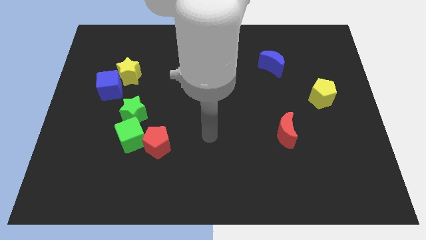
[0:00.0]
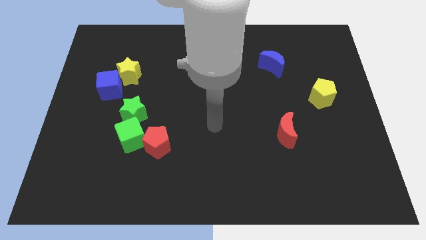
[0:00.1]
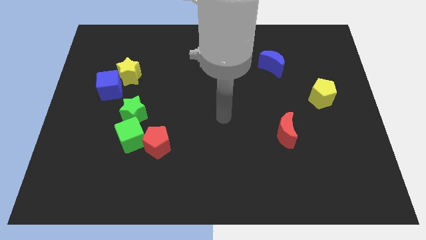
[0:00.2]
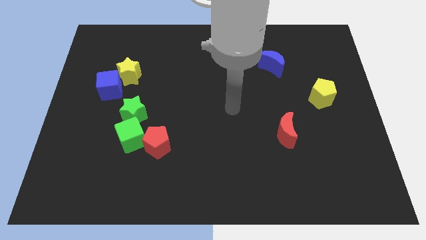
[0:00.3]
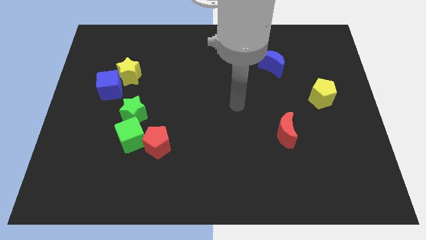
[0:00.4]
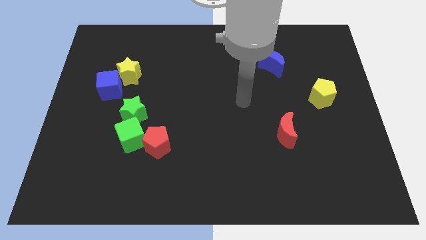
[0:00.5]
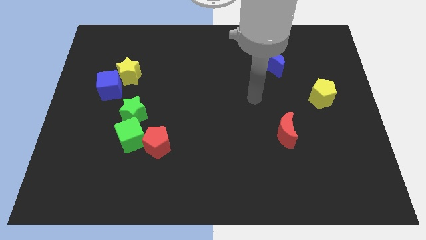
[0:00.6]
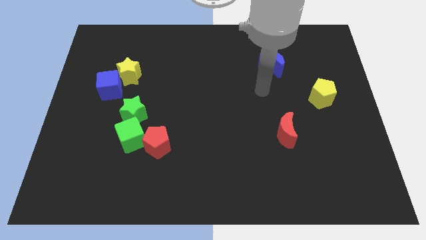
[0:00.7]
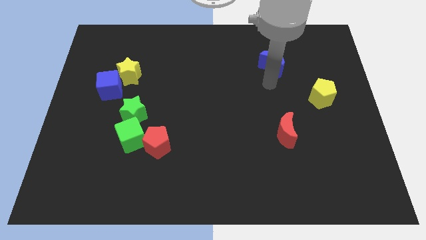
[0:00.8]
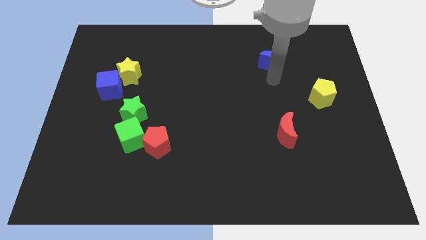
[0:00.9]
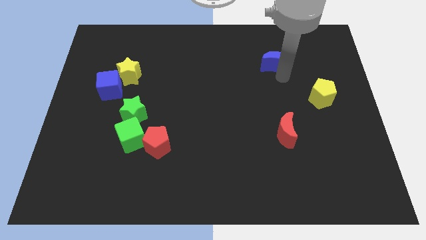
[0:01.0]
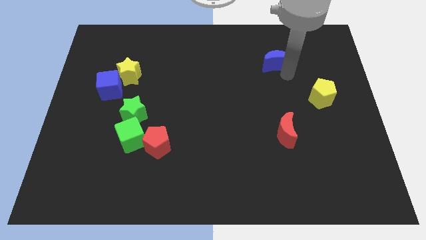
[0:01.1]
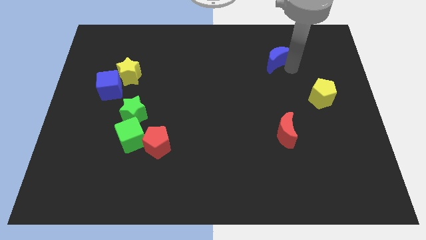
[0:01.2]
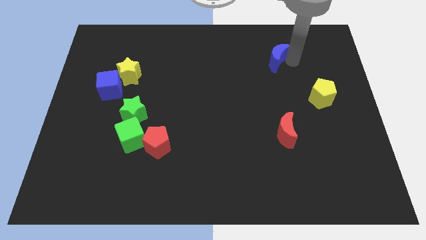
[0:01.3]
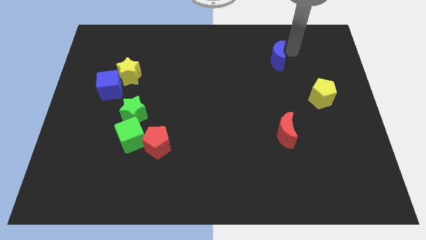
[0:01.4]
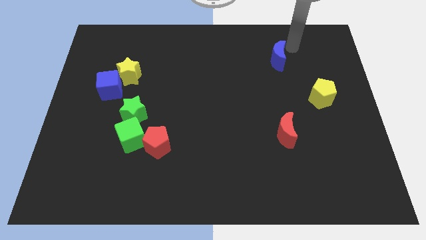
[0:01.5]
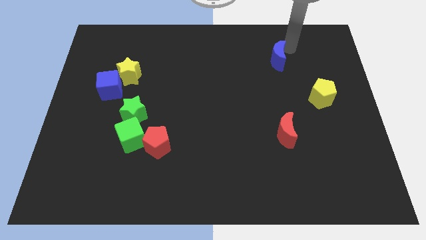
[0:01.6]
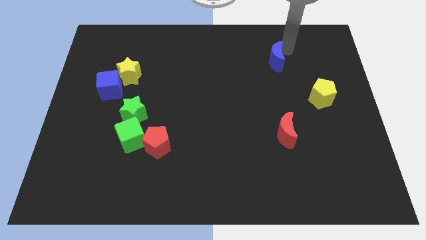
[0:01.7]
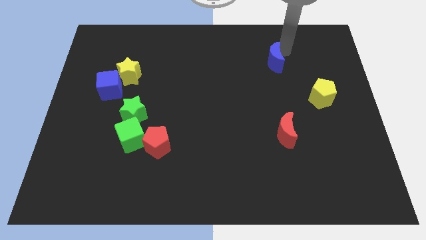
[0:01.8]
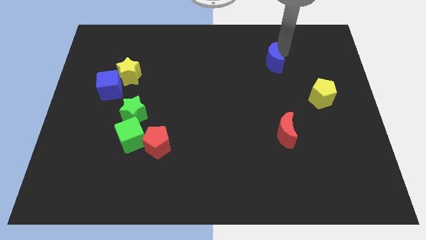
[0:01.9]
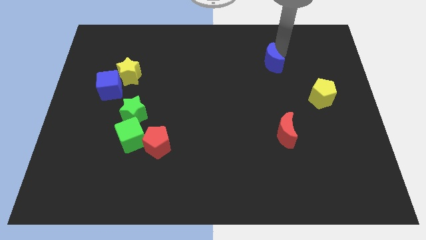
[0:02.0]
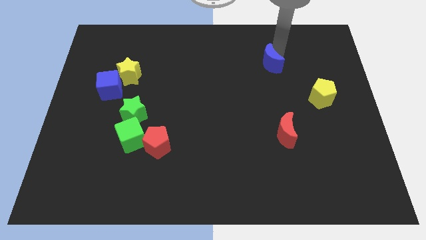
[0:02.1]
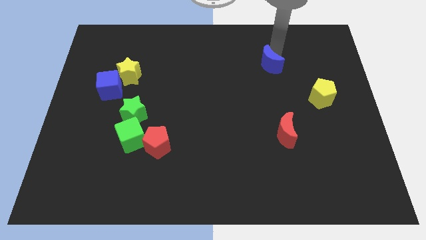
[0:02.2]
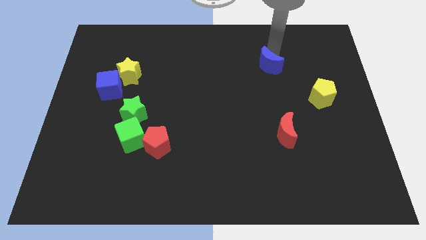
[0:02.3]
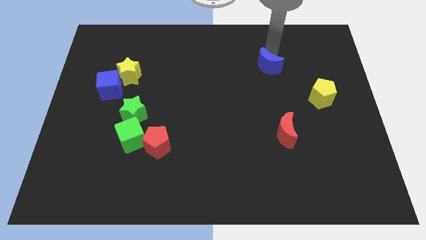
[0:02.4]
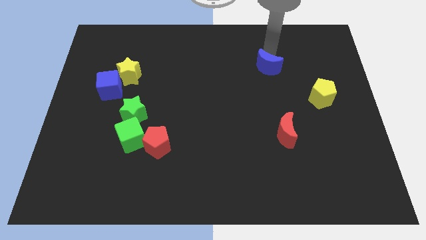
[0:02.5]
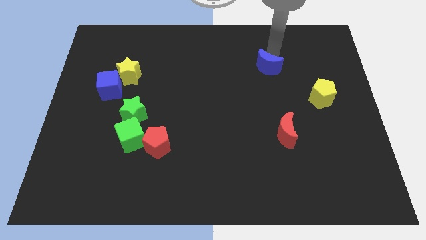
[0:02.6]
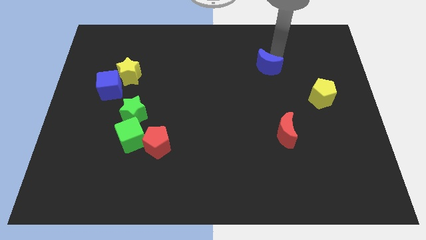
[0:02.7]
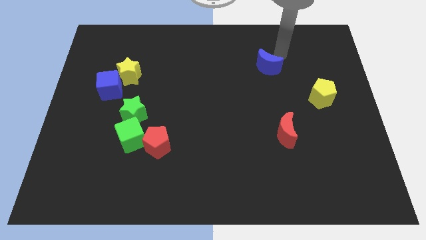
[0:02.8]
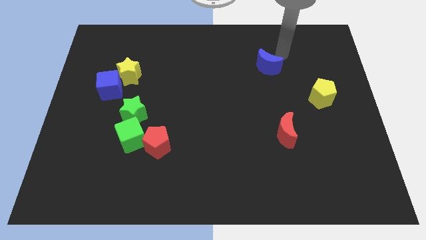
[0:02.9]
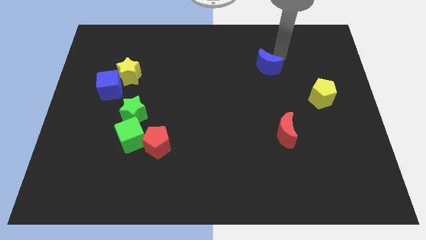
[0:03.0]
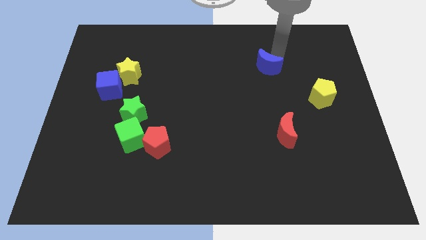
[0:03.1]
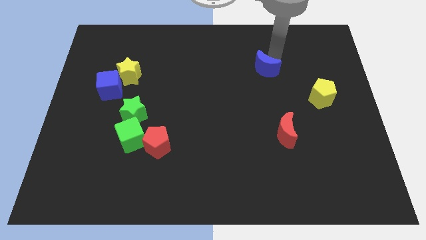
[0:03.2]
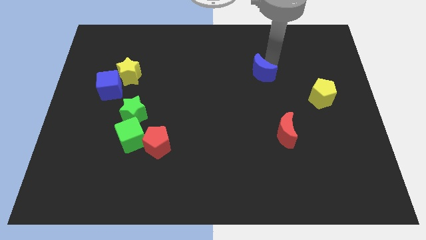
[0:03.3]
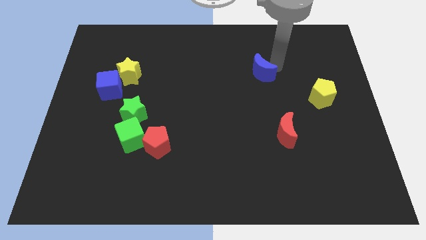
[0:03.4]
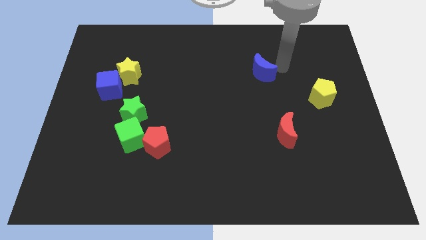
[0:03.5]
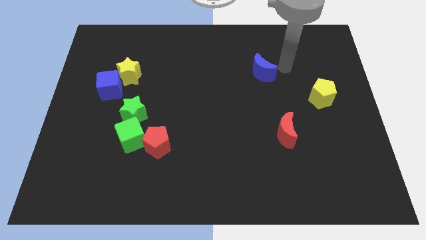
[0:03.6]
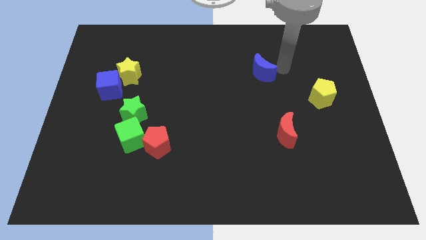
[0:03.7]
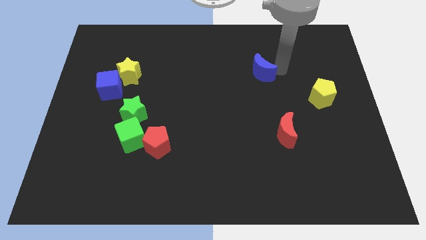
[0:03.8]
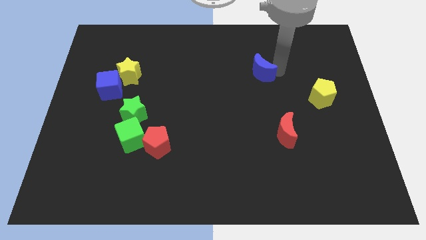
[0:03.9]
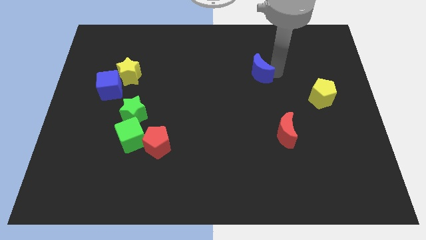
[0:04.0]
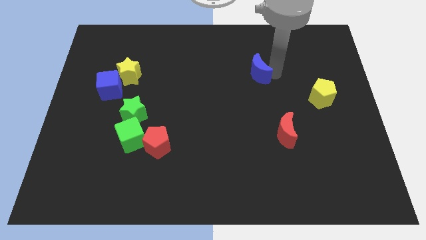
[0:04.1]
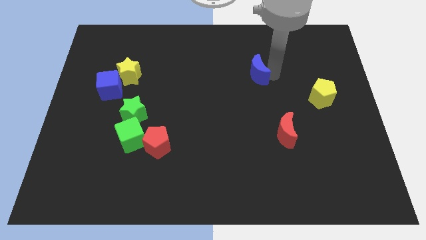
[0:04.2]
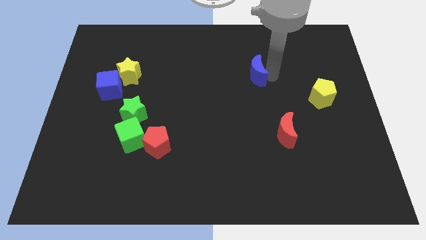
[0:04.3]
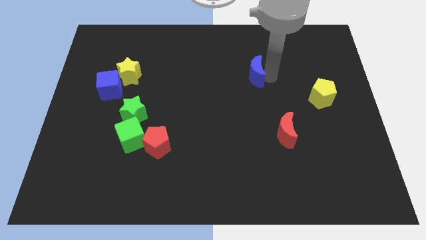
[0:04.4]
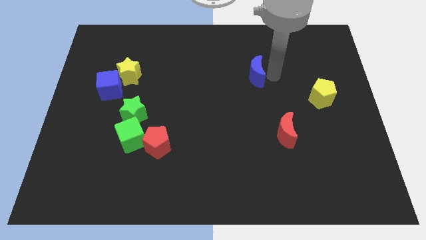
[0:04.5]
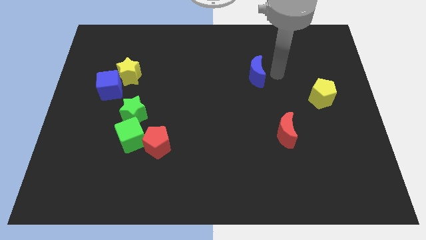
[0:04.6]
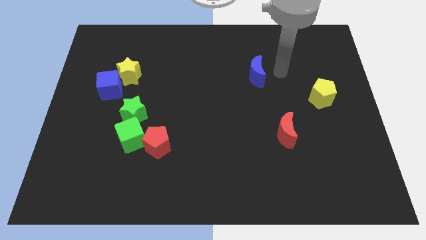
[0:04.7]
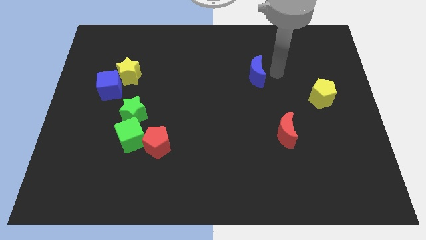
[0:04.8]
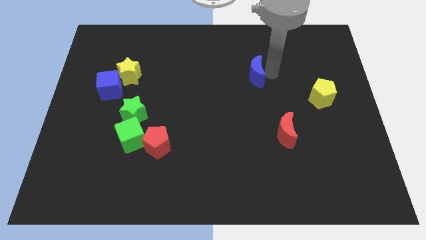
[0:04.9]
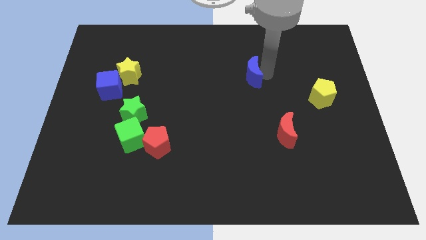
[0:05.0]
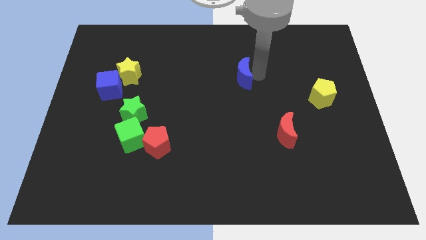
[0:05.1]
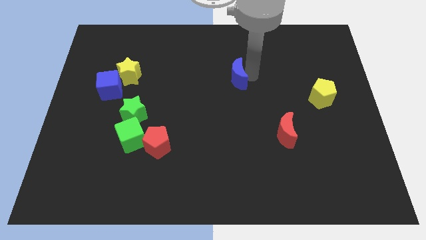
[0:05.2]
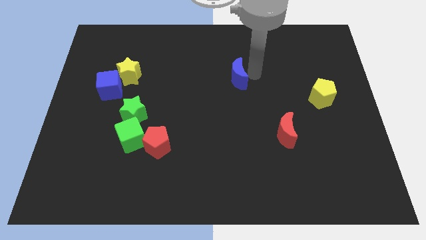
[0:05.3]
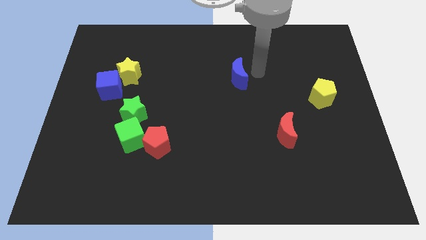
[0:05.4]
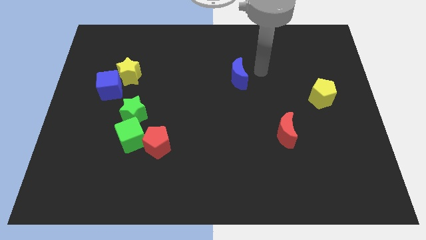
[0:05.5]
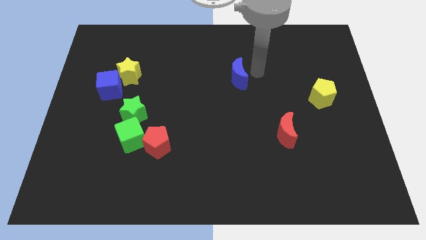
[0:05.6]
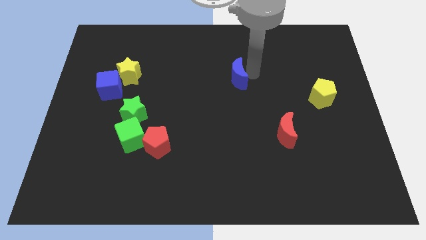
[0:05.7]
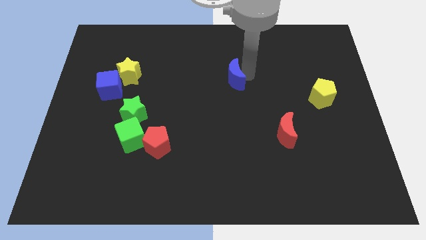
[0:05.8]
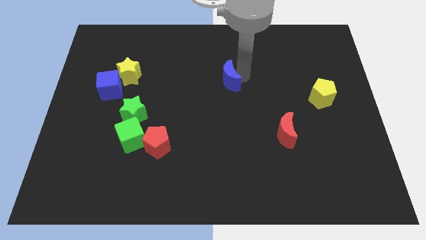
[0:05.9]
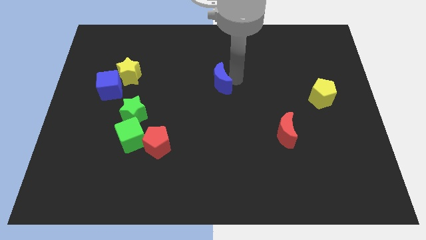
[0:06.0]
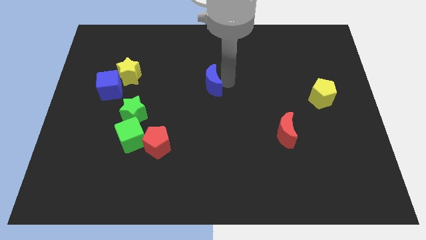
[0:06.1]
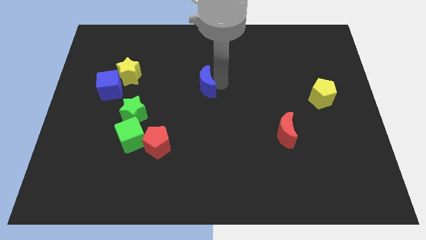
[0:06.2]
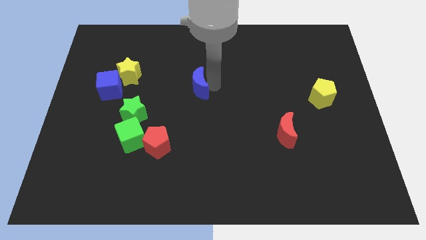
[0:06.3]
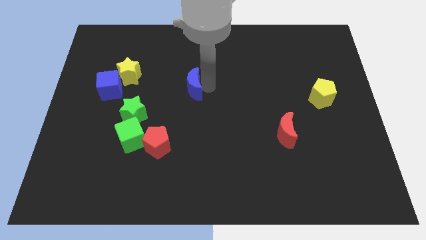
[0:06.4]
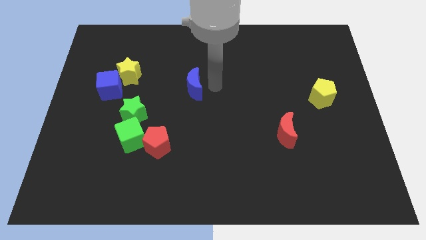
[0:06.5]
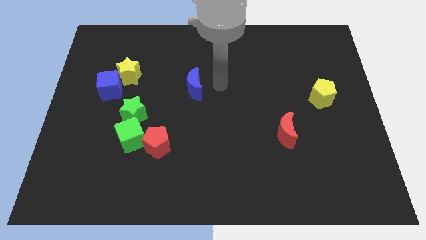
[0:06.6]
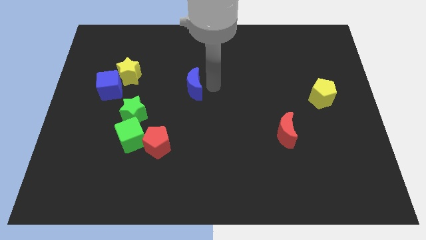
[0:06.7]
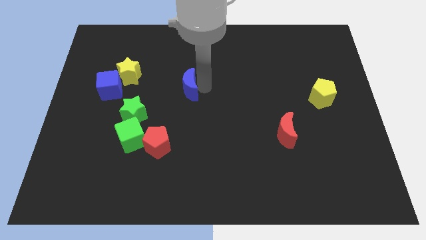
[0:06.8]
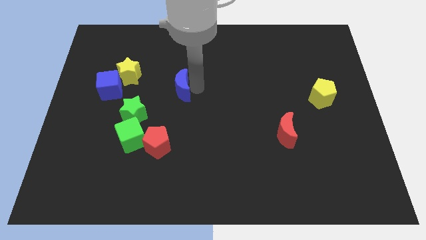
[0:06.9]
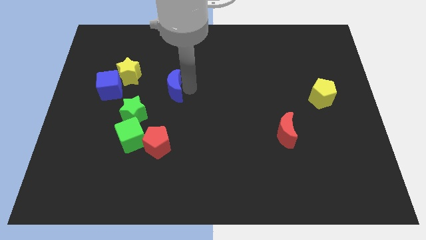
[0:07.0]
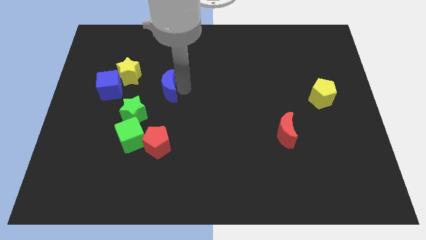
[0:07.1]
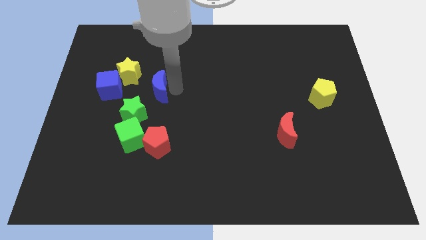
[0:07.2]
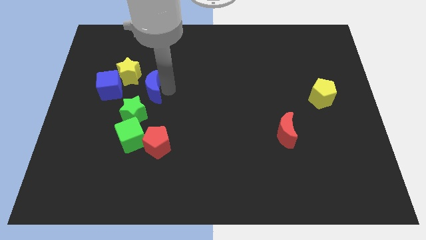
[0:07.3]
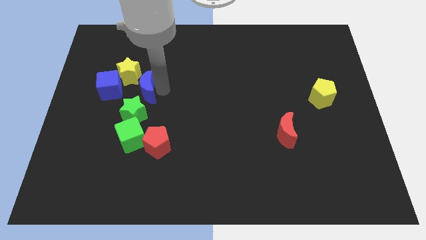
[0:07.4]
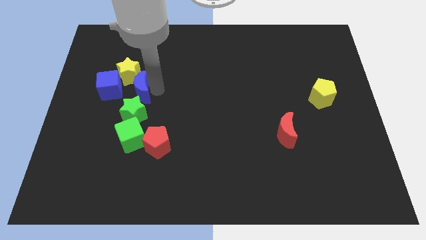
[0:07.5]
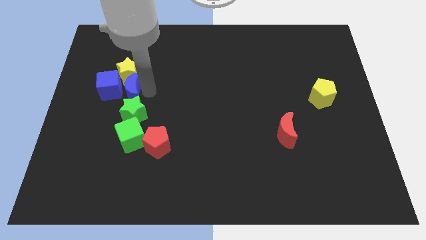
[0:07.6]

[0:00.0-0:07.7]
slide the blue moon next to the blue cube

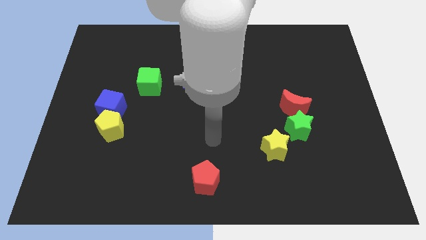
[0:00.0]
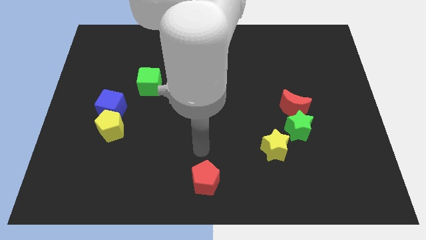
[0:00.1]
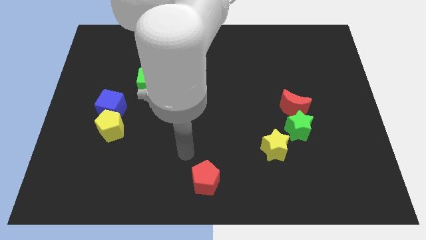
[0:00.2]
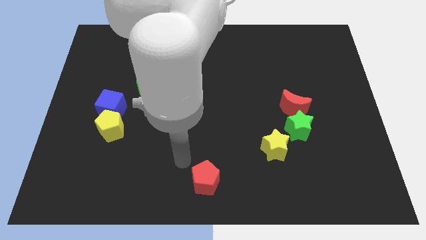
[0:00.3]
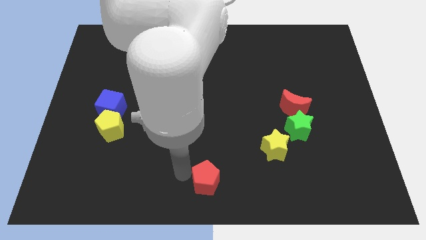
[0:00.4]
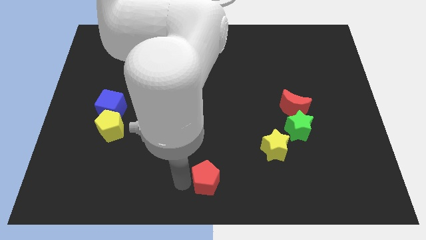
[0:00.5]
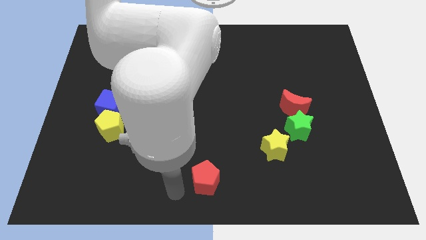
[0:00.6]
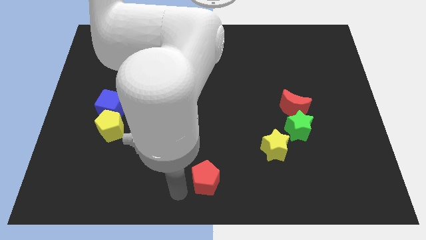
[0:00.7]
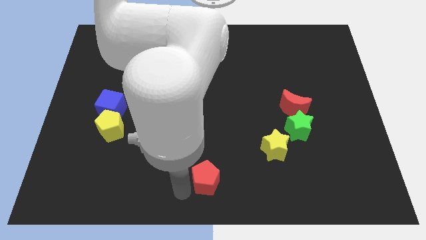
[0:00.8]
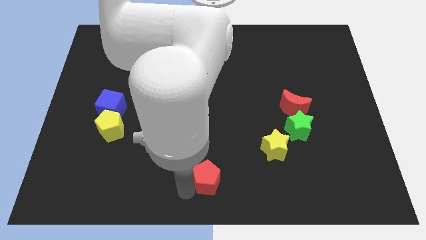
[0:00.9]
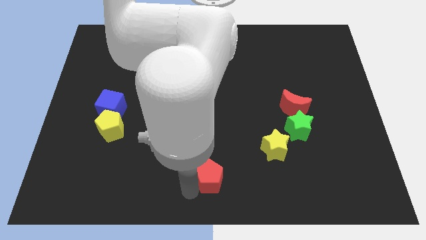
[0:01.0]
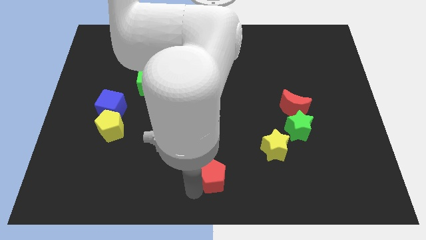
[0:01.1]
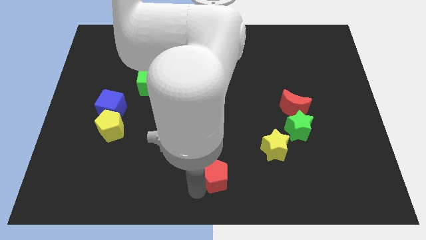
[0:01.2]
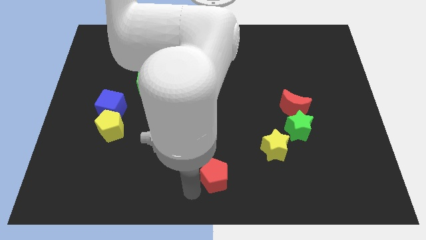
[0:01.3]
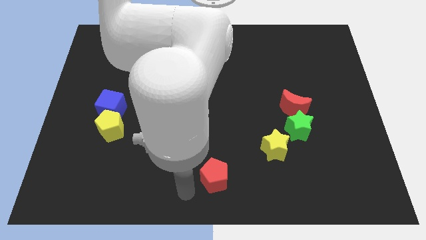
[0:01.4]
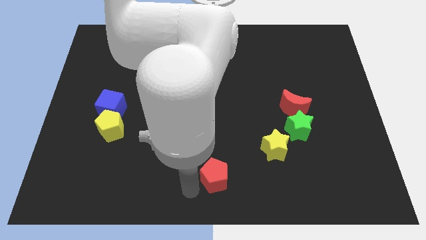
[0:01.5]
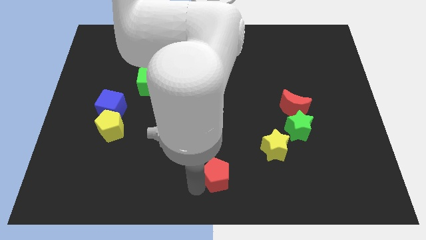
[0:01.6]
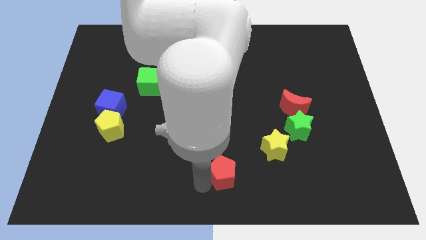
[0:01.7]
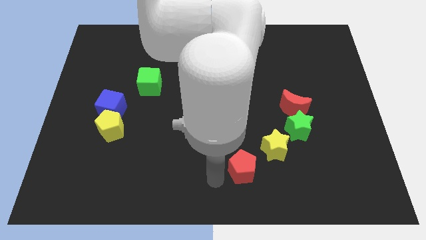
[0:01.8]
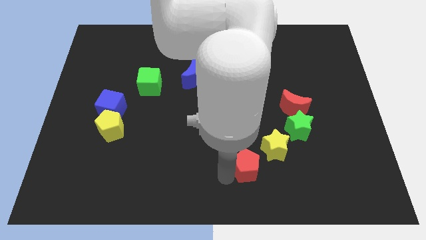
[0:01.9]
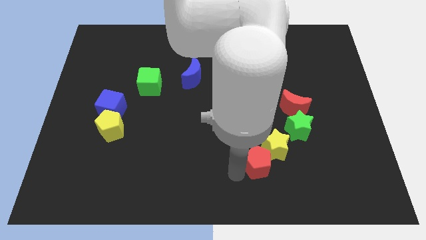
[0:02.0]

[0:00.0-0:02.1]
put the red pentagon next to the yellow star
